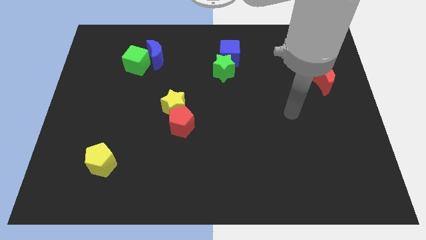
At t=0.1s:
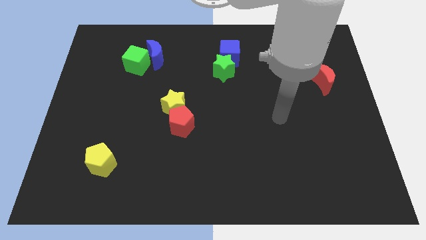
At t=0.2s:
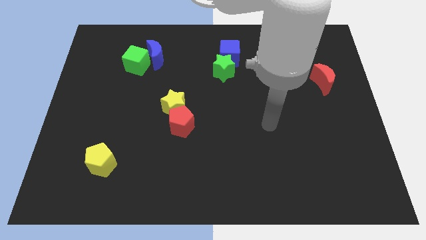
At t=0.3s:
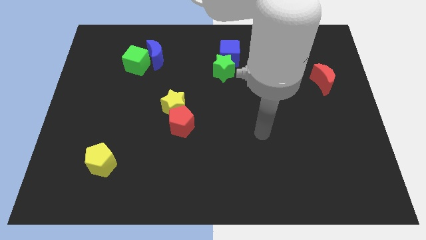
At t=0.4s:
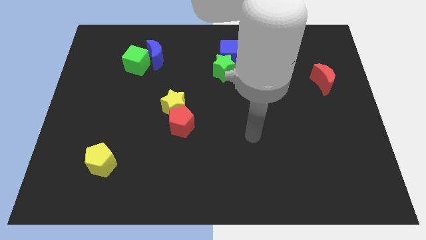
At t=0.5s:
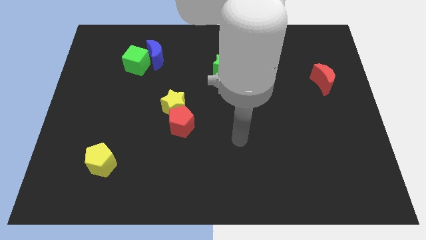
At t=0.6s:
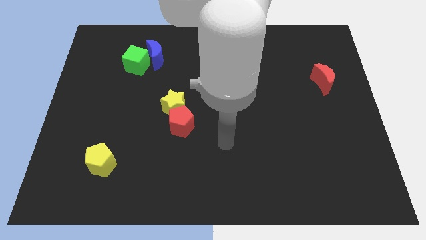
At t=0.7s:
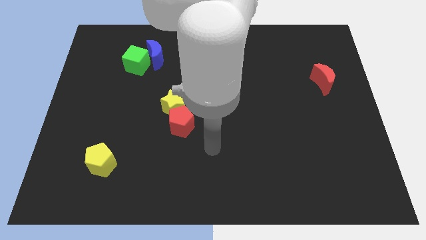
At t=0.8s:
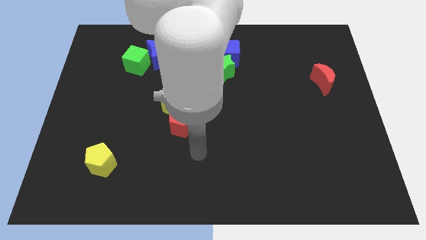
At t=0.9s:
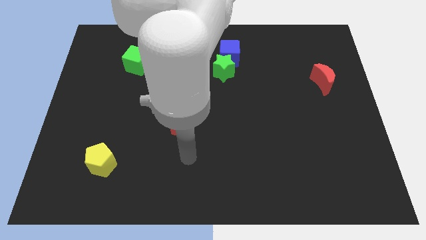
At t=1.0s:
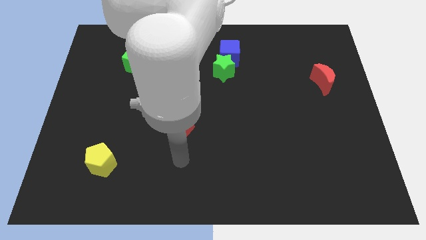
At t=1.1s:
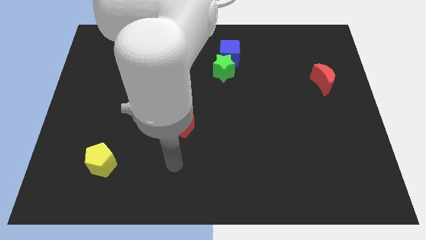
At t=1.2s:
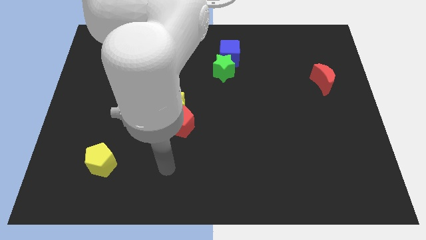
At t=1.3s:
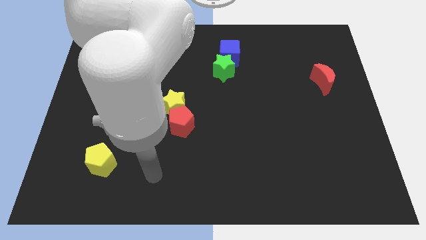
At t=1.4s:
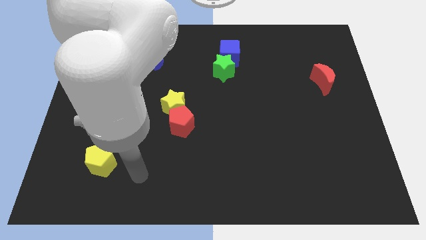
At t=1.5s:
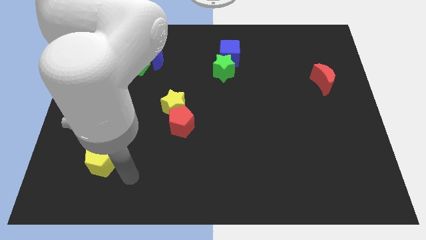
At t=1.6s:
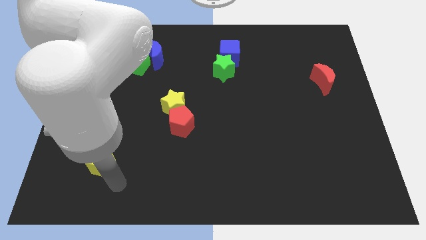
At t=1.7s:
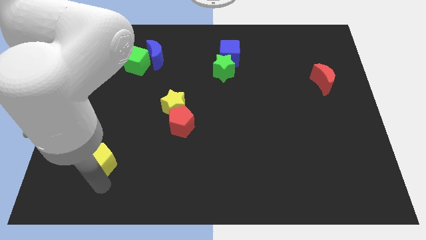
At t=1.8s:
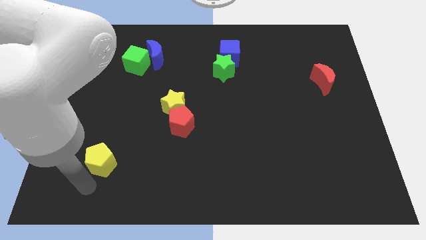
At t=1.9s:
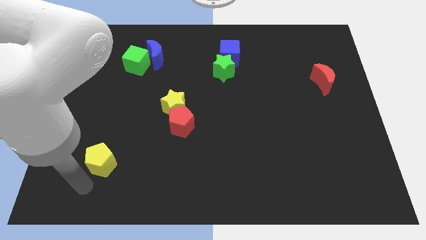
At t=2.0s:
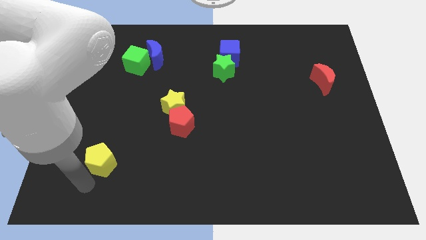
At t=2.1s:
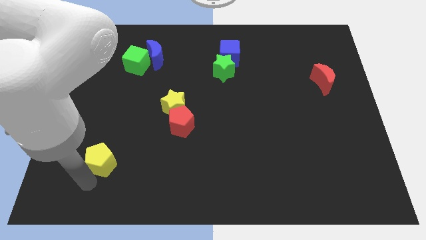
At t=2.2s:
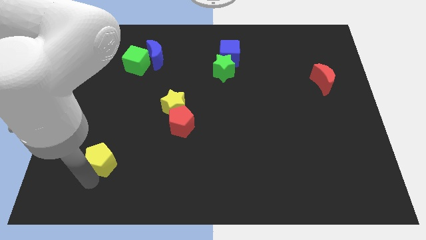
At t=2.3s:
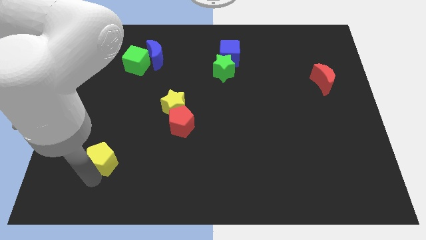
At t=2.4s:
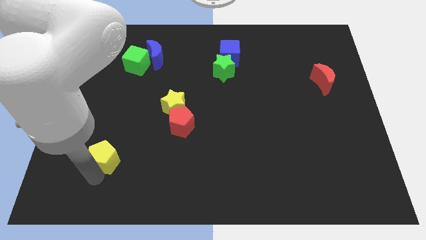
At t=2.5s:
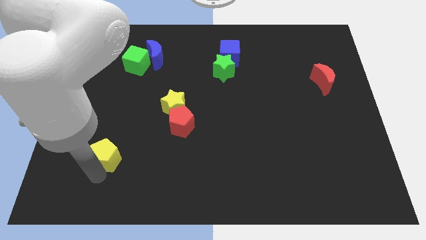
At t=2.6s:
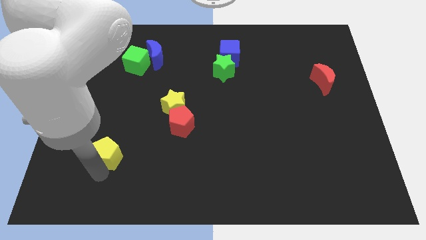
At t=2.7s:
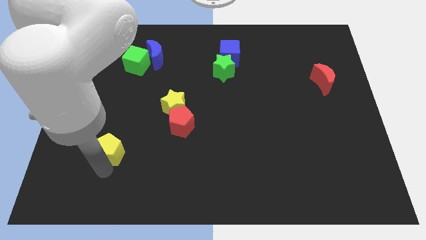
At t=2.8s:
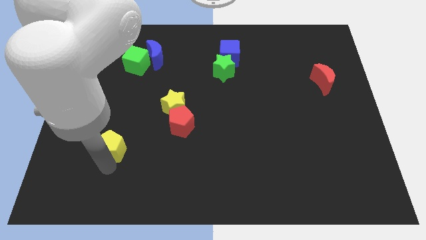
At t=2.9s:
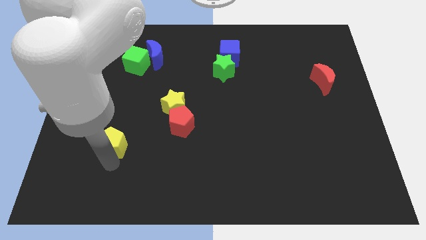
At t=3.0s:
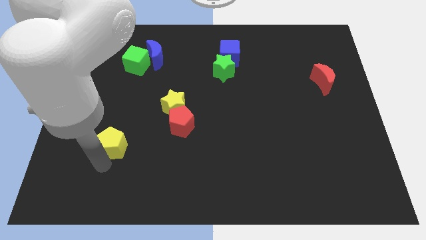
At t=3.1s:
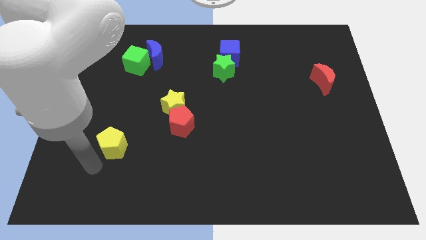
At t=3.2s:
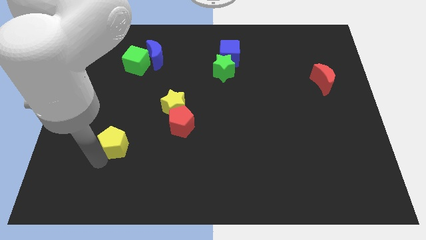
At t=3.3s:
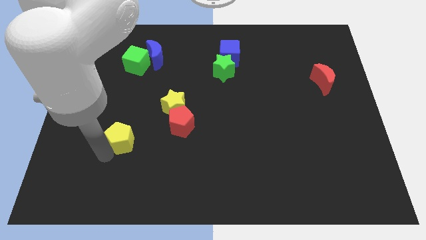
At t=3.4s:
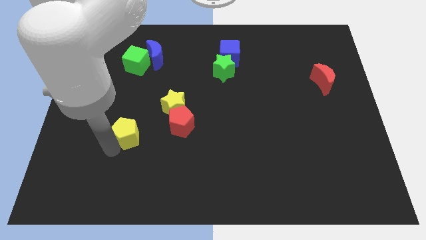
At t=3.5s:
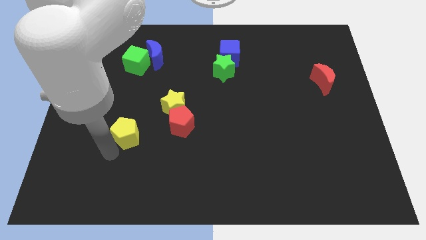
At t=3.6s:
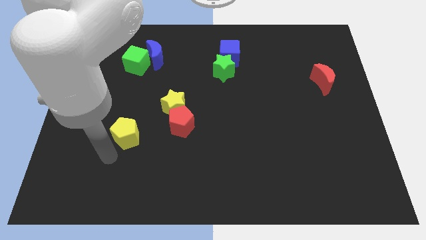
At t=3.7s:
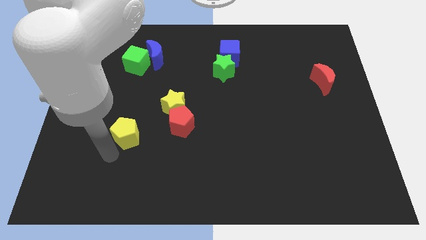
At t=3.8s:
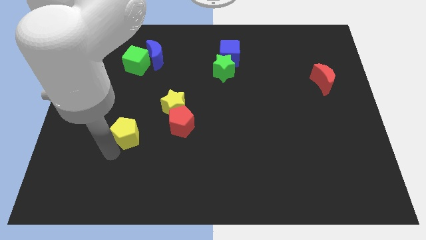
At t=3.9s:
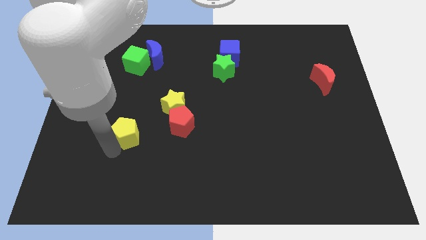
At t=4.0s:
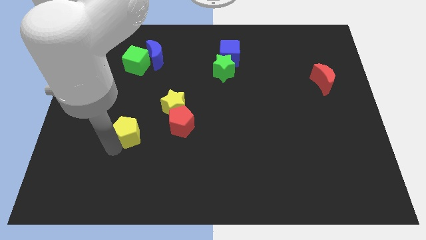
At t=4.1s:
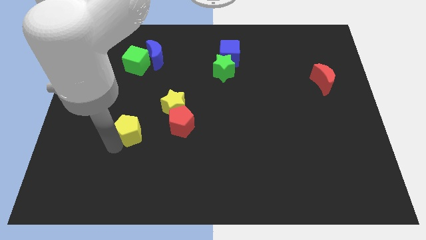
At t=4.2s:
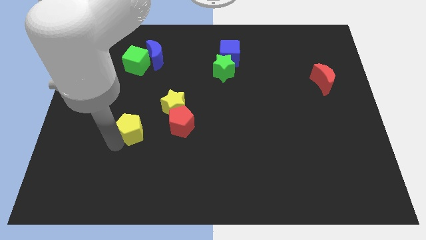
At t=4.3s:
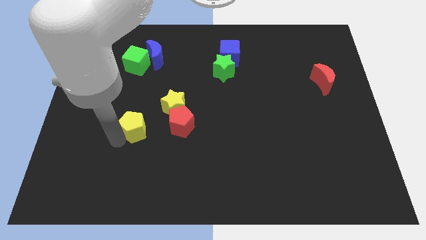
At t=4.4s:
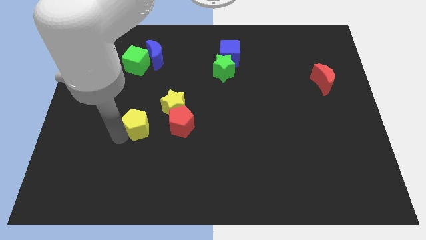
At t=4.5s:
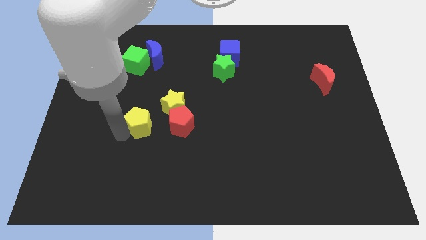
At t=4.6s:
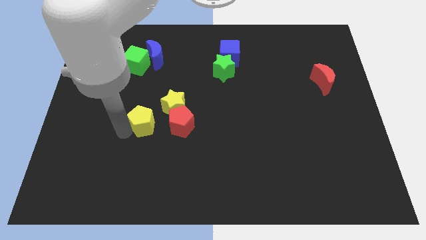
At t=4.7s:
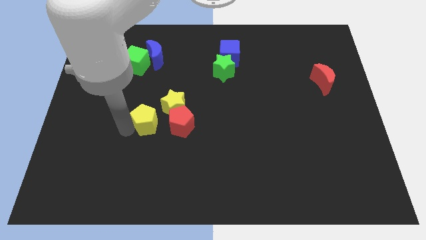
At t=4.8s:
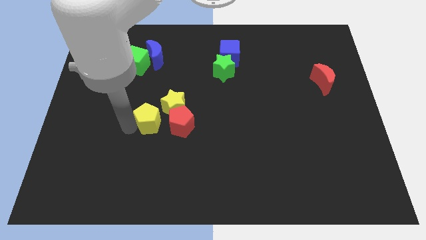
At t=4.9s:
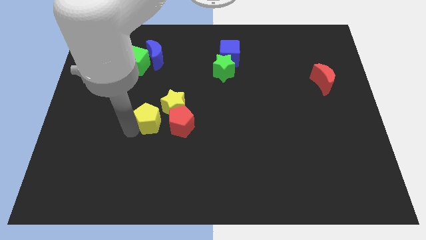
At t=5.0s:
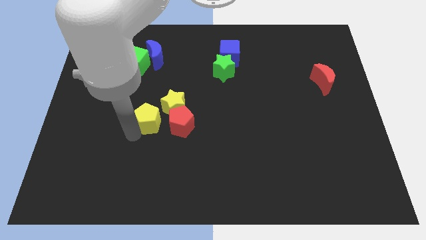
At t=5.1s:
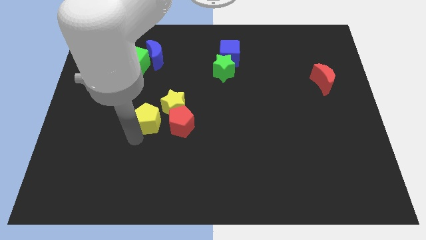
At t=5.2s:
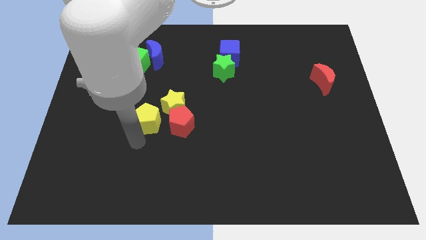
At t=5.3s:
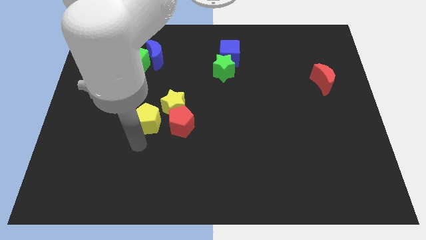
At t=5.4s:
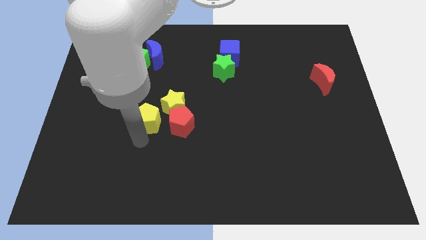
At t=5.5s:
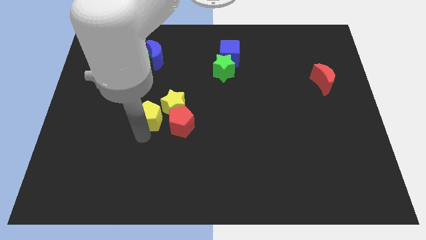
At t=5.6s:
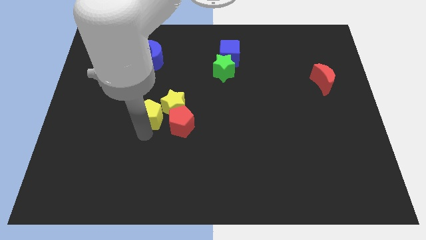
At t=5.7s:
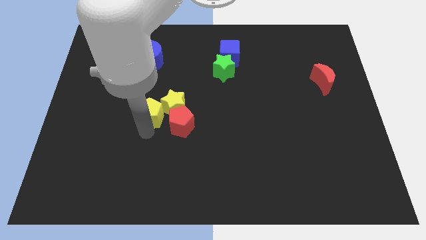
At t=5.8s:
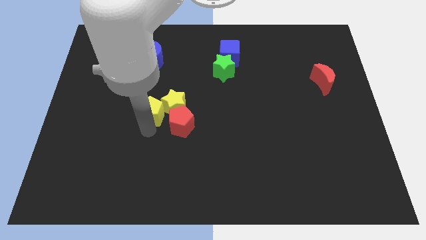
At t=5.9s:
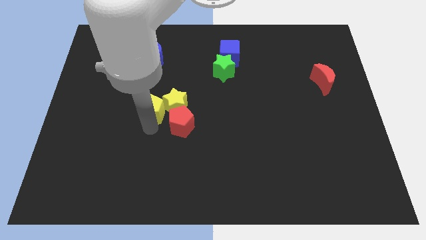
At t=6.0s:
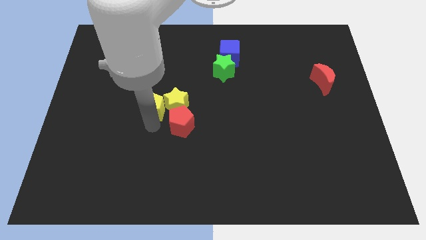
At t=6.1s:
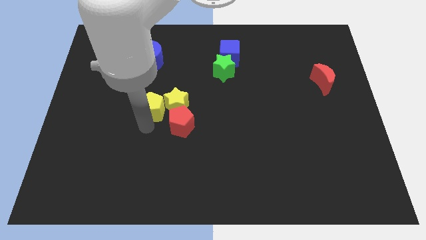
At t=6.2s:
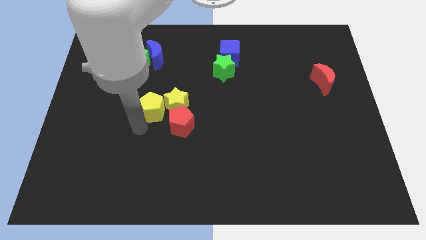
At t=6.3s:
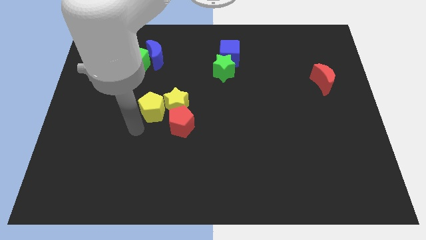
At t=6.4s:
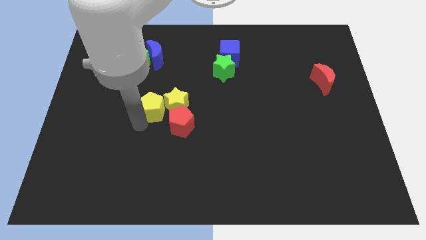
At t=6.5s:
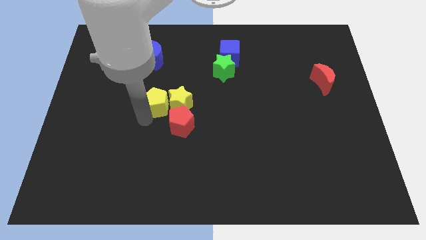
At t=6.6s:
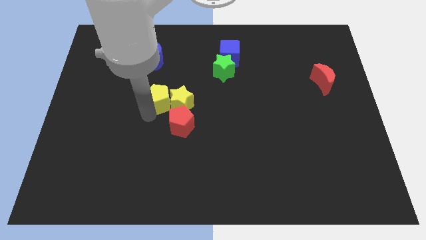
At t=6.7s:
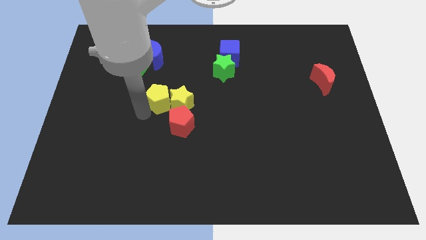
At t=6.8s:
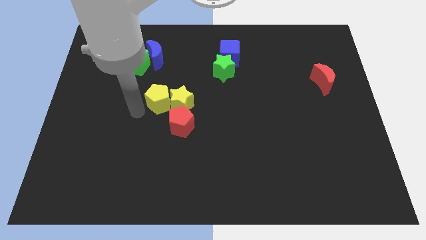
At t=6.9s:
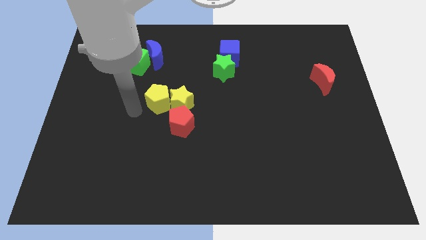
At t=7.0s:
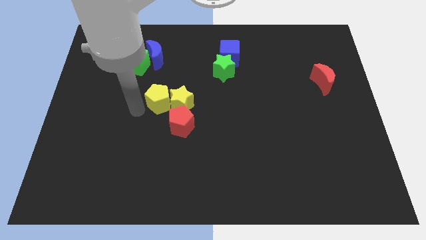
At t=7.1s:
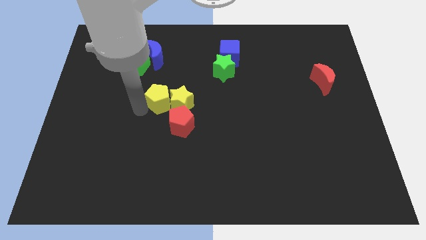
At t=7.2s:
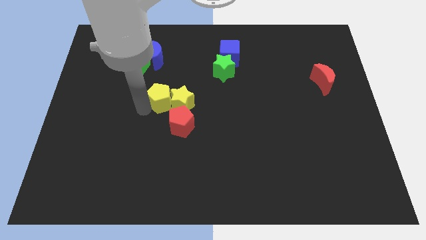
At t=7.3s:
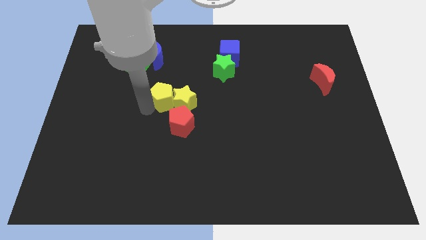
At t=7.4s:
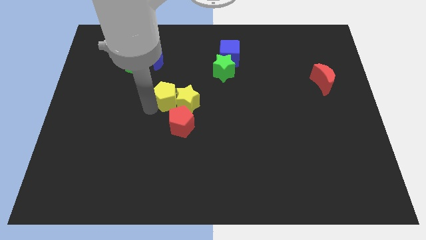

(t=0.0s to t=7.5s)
move the yellow pentagon up and then to the right

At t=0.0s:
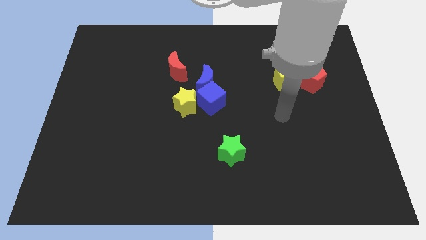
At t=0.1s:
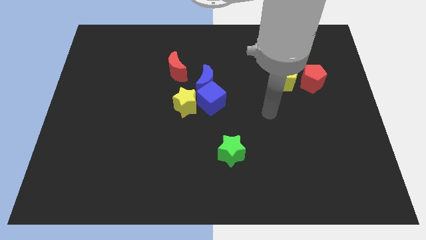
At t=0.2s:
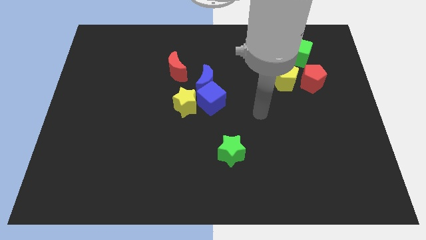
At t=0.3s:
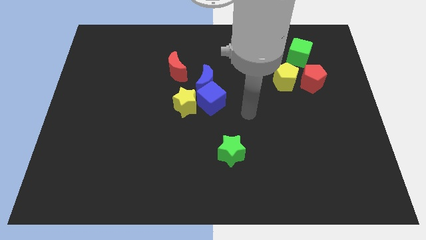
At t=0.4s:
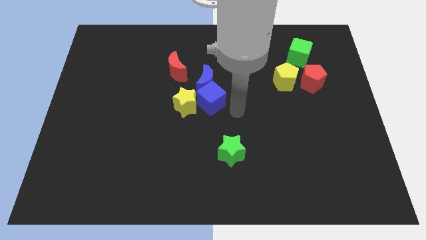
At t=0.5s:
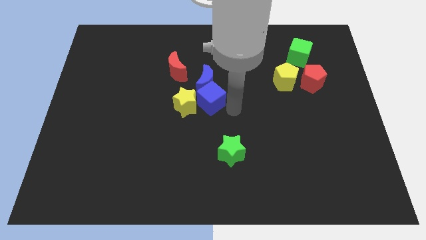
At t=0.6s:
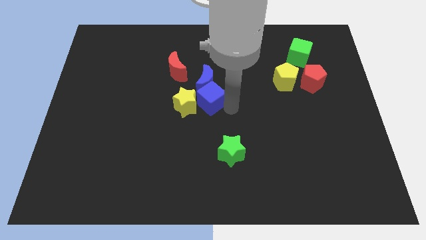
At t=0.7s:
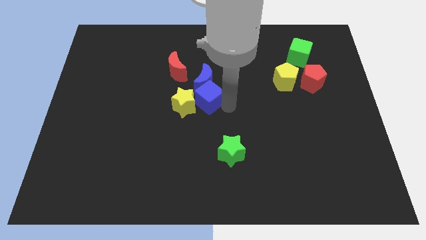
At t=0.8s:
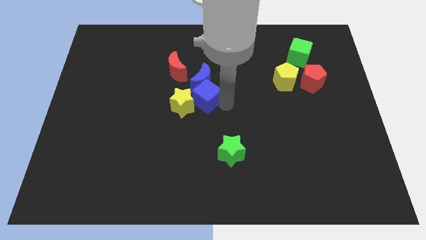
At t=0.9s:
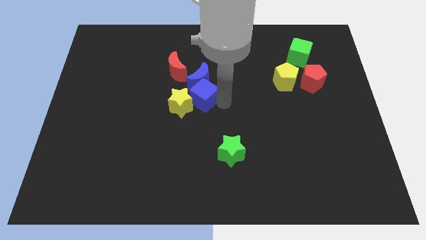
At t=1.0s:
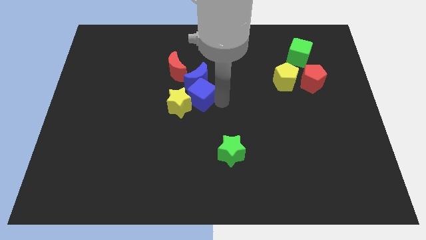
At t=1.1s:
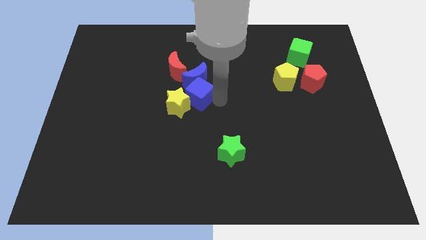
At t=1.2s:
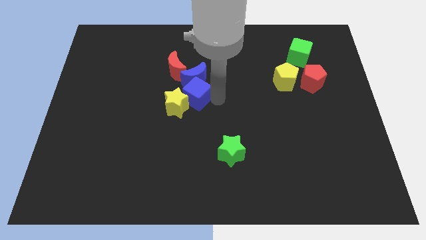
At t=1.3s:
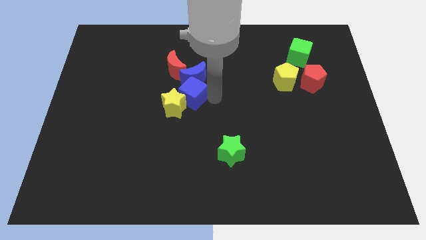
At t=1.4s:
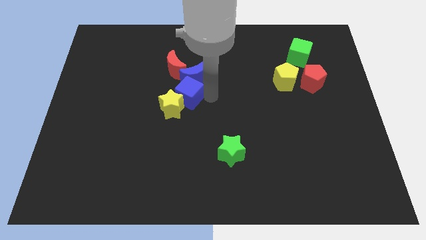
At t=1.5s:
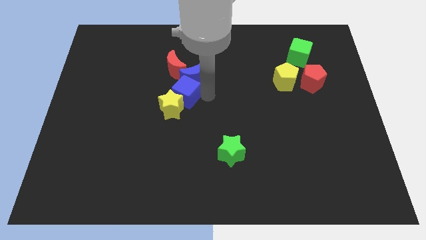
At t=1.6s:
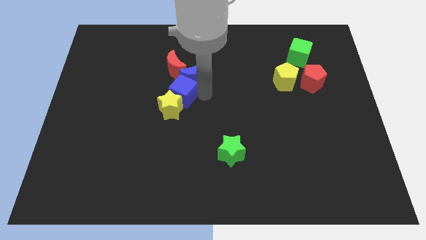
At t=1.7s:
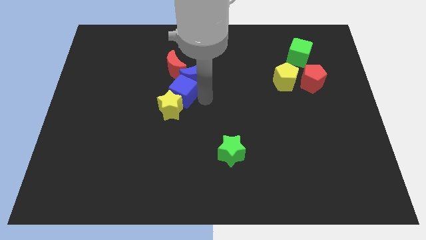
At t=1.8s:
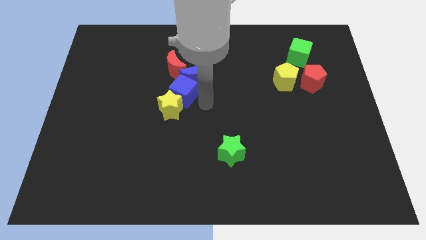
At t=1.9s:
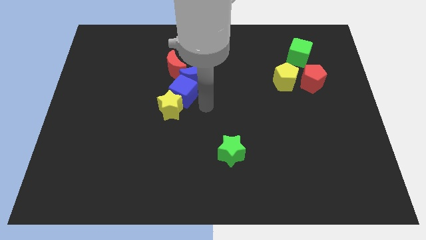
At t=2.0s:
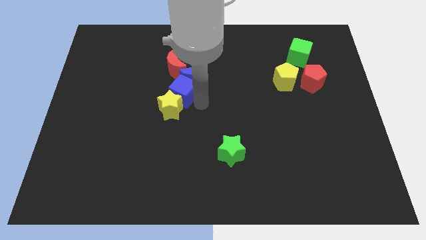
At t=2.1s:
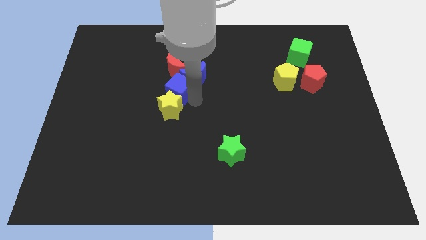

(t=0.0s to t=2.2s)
move the blue cube upwards and to the left diagonally a little
